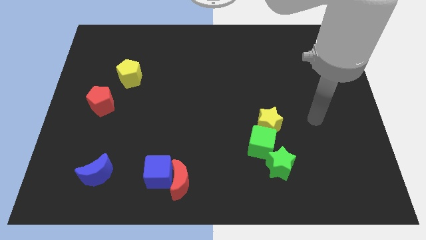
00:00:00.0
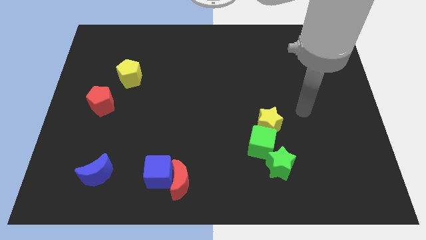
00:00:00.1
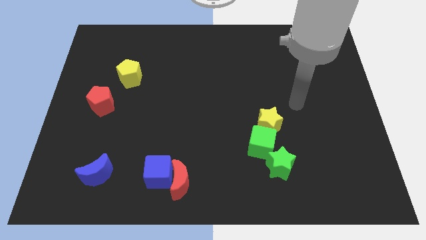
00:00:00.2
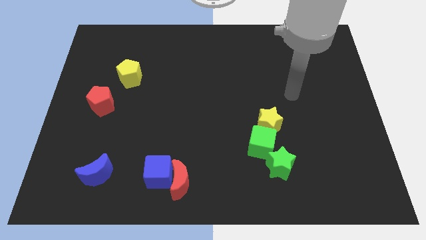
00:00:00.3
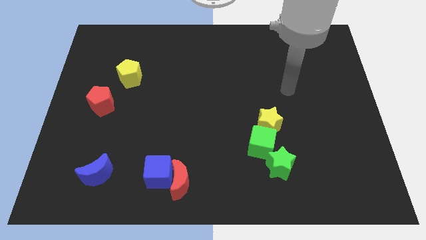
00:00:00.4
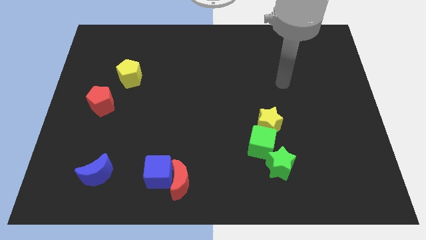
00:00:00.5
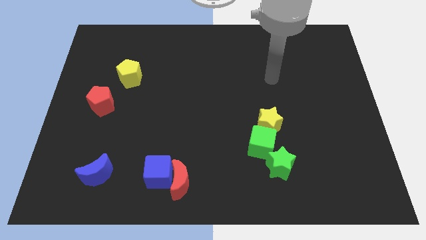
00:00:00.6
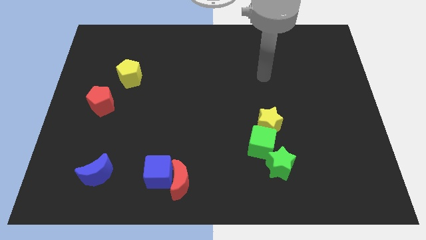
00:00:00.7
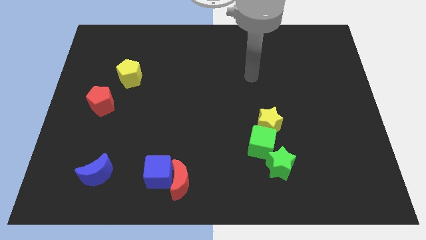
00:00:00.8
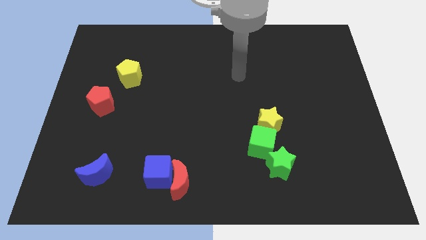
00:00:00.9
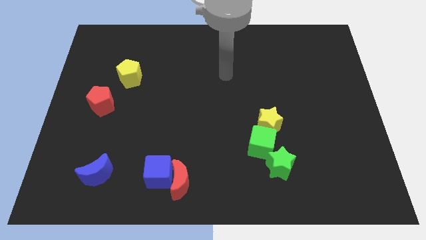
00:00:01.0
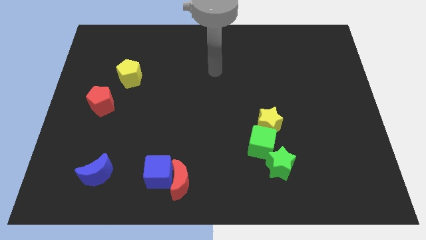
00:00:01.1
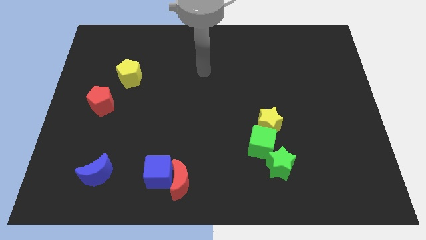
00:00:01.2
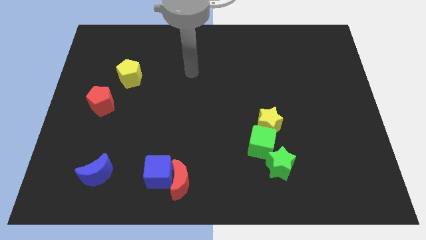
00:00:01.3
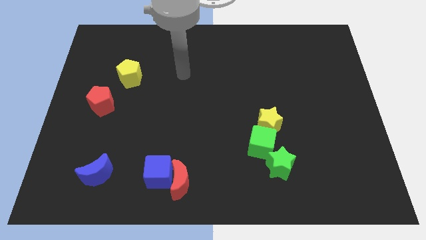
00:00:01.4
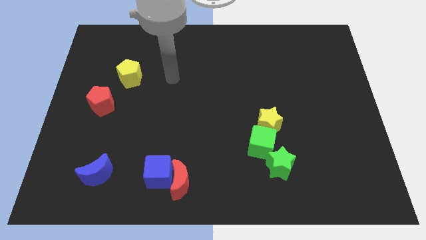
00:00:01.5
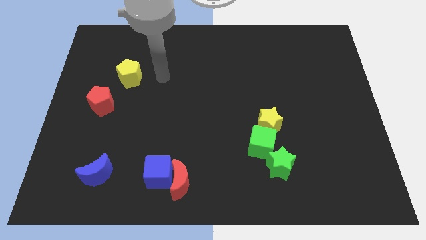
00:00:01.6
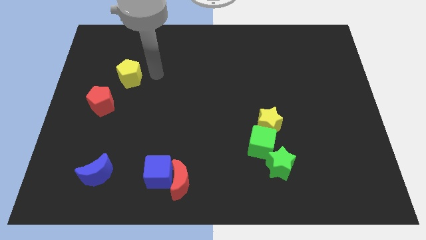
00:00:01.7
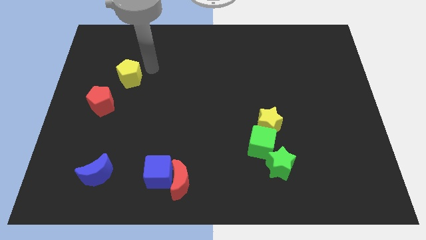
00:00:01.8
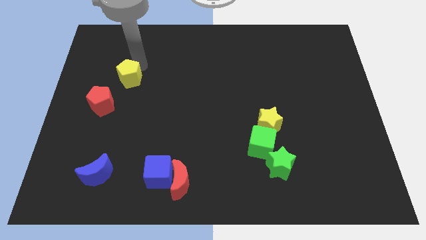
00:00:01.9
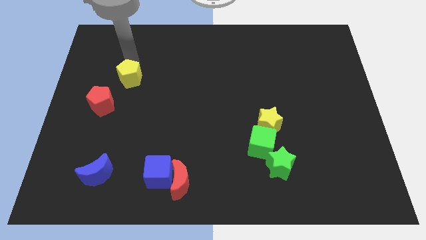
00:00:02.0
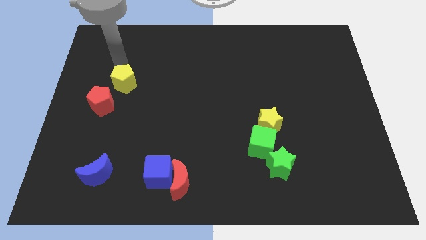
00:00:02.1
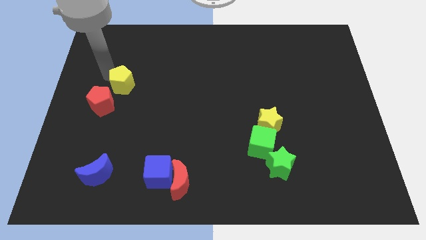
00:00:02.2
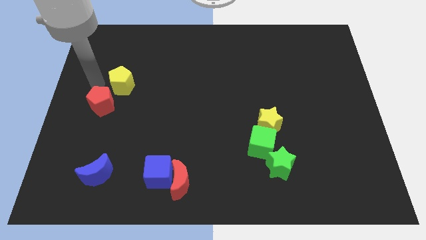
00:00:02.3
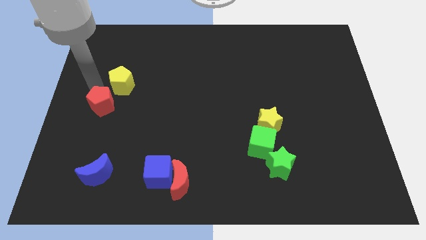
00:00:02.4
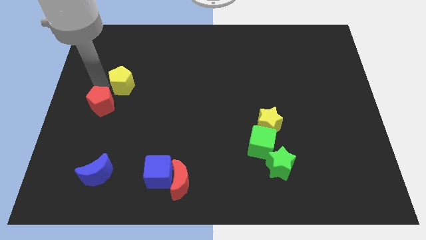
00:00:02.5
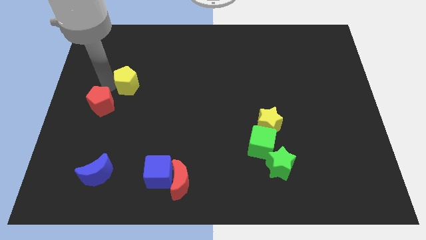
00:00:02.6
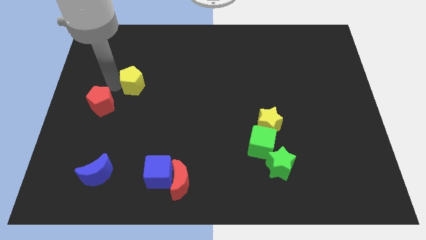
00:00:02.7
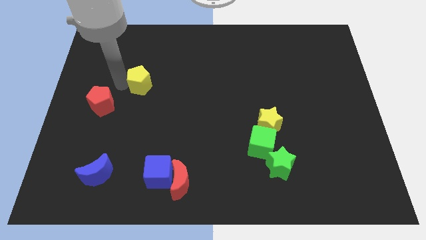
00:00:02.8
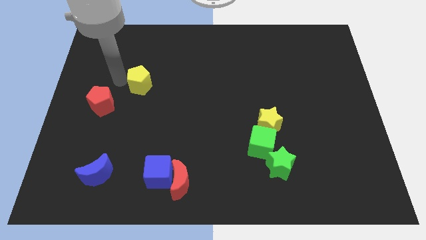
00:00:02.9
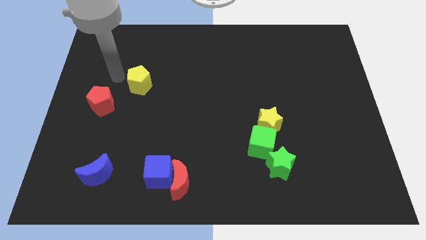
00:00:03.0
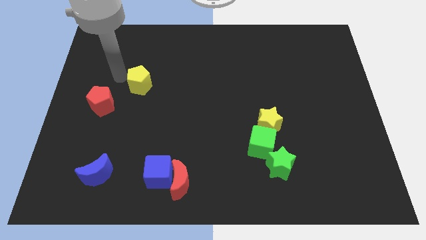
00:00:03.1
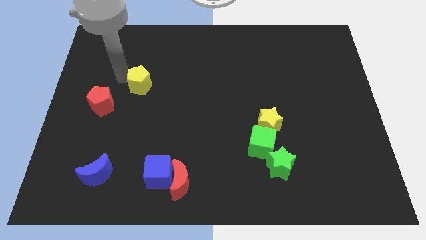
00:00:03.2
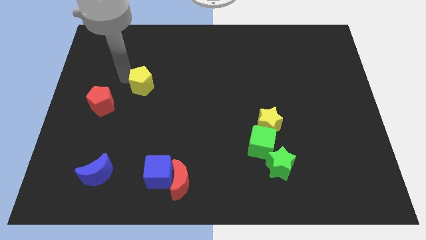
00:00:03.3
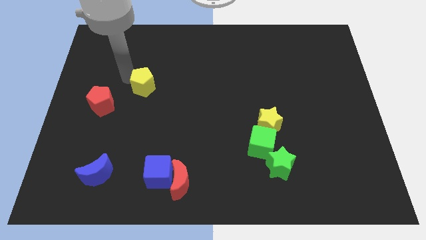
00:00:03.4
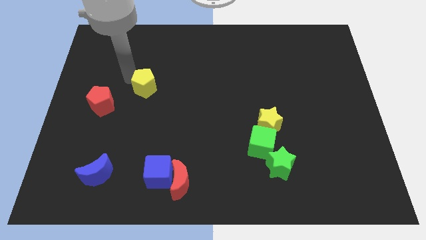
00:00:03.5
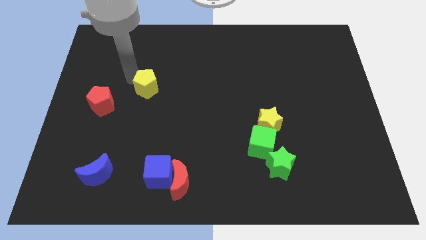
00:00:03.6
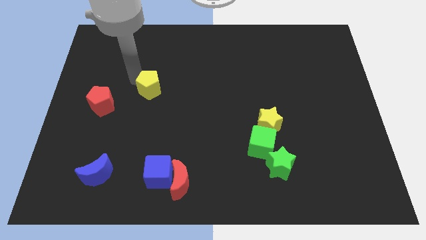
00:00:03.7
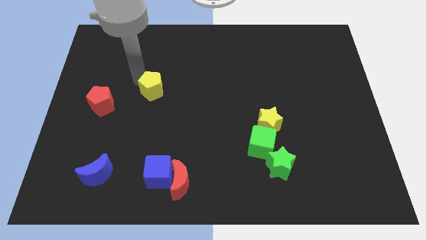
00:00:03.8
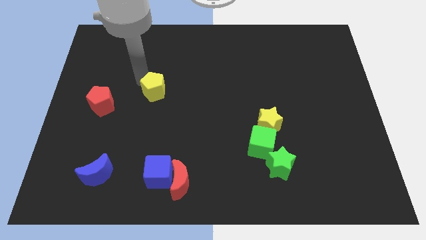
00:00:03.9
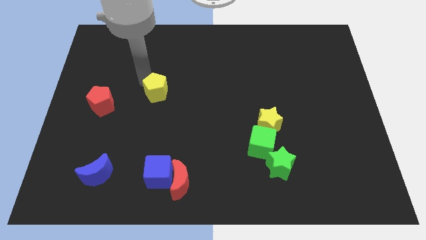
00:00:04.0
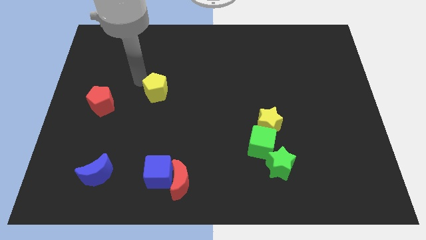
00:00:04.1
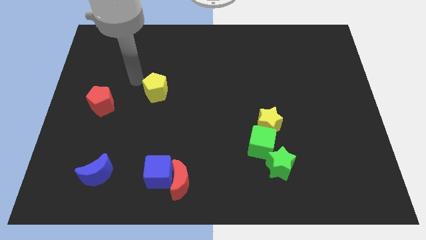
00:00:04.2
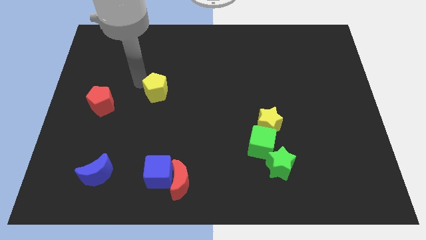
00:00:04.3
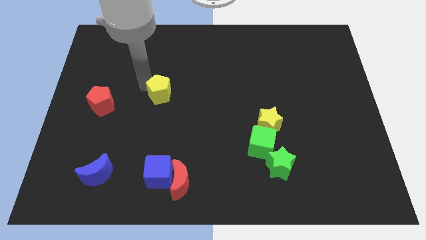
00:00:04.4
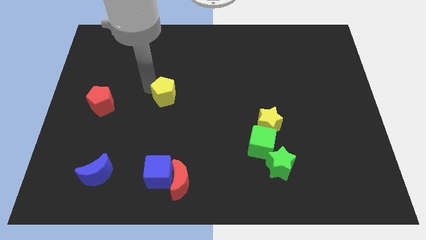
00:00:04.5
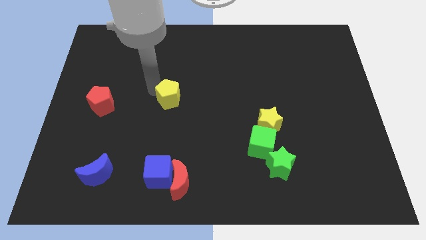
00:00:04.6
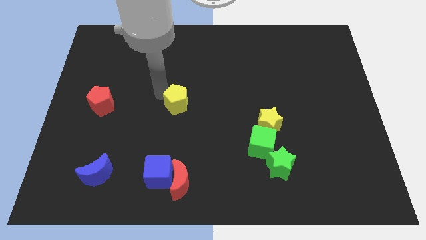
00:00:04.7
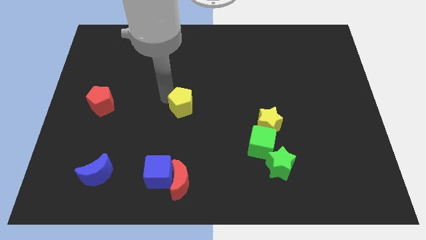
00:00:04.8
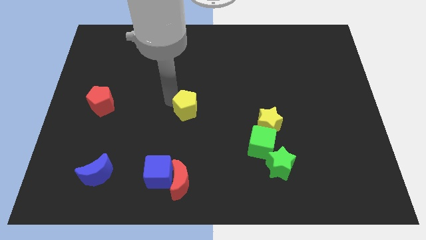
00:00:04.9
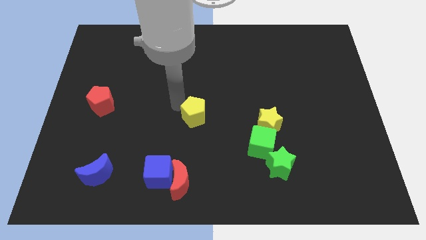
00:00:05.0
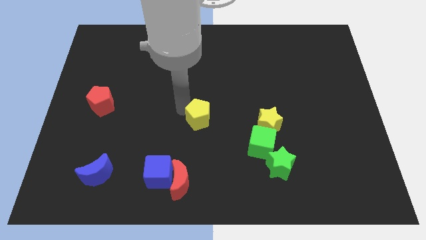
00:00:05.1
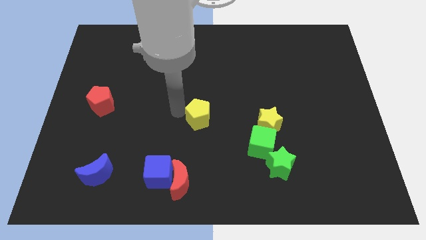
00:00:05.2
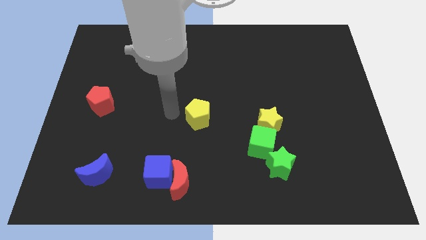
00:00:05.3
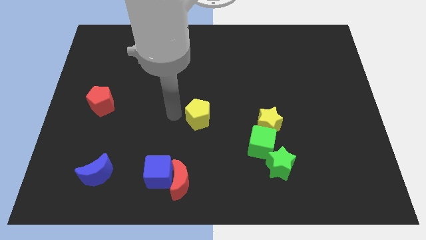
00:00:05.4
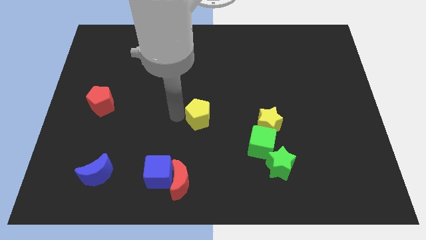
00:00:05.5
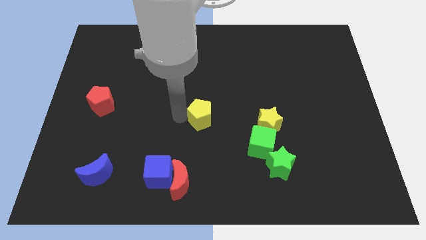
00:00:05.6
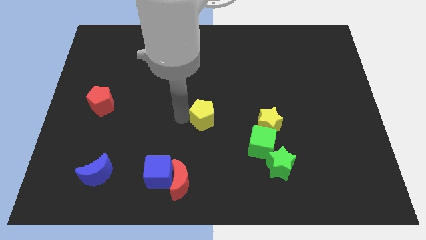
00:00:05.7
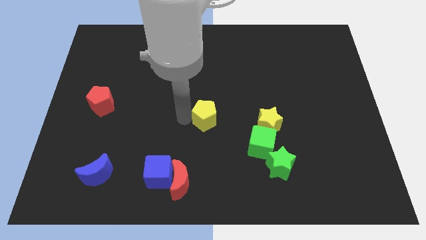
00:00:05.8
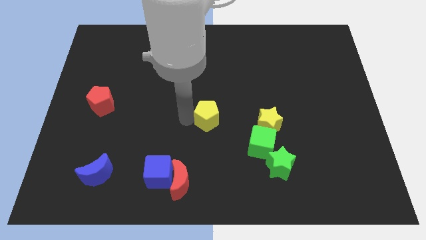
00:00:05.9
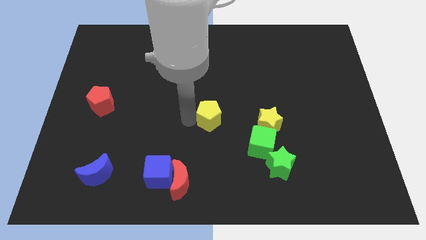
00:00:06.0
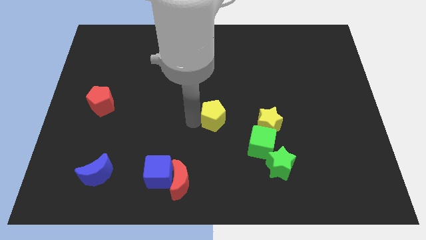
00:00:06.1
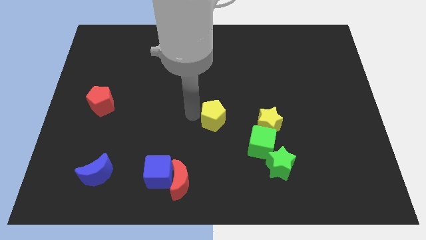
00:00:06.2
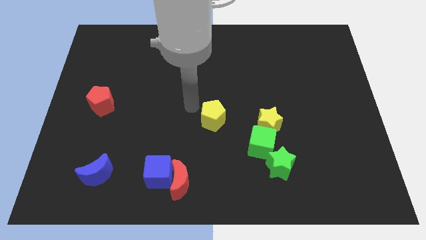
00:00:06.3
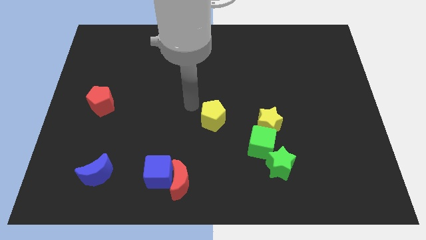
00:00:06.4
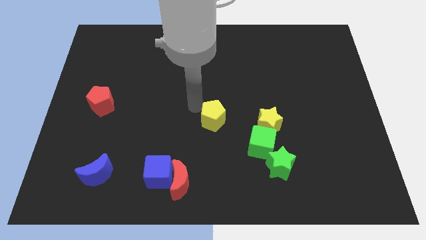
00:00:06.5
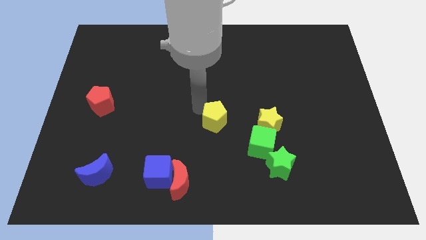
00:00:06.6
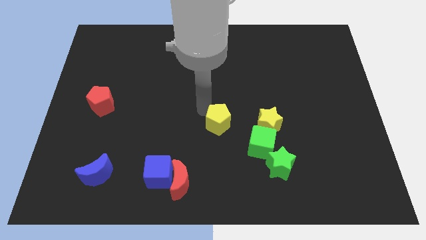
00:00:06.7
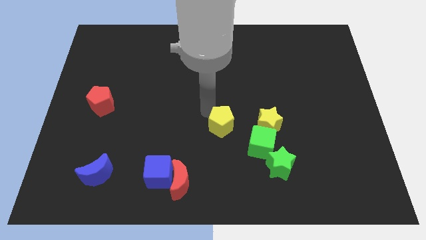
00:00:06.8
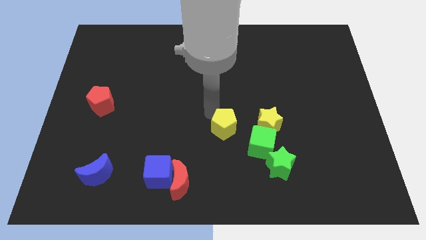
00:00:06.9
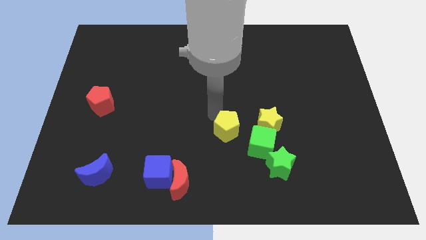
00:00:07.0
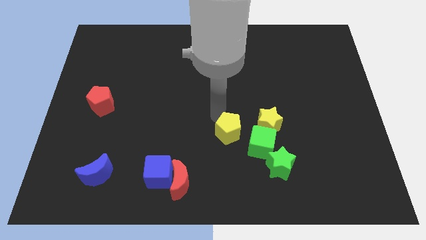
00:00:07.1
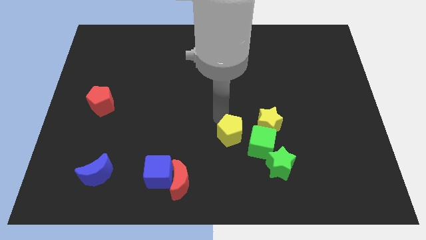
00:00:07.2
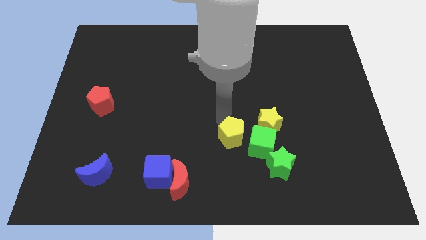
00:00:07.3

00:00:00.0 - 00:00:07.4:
slide the yellow pentagon diagonally up and to the left of the green star
